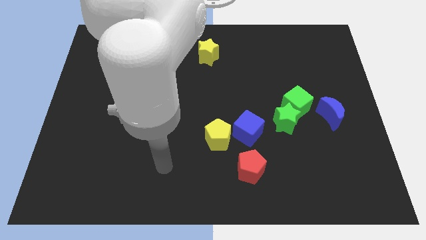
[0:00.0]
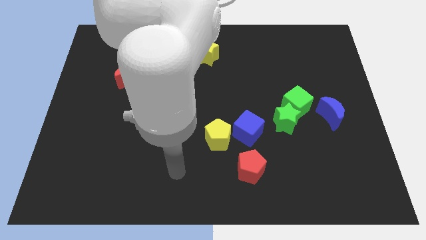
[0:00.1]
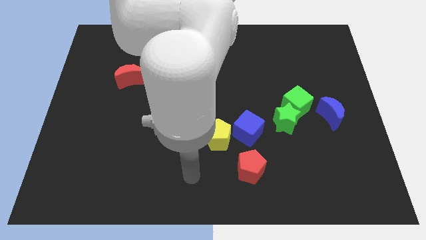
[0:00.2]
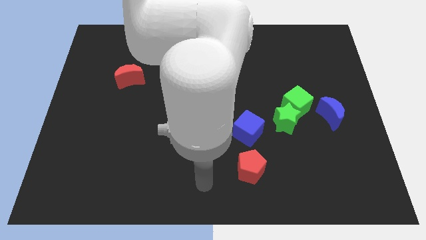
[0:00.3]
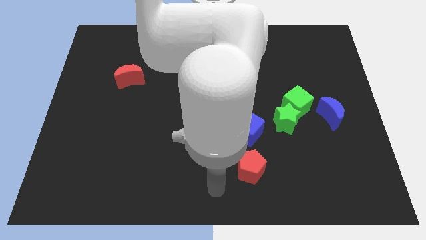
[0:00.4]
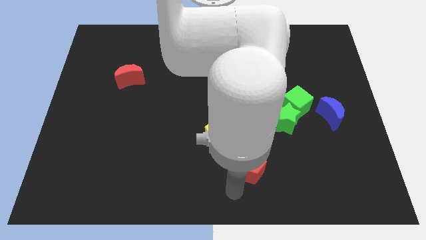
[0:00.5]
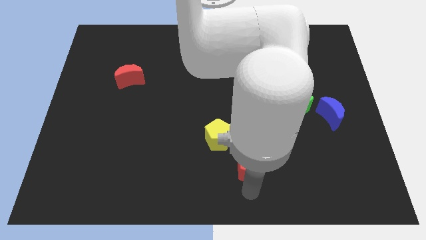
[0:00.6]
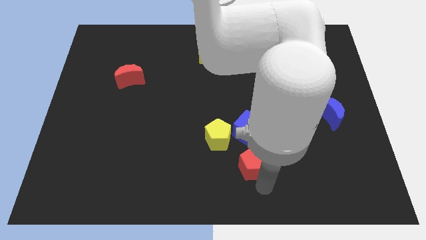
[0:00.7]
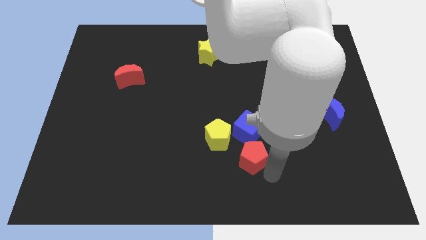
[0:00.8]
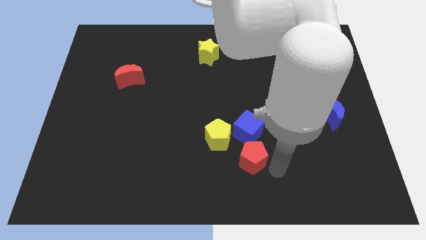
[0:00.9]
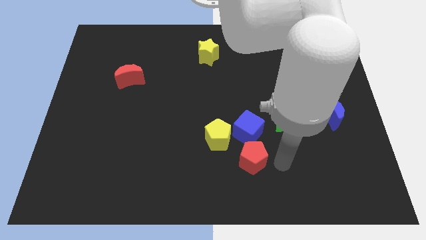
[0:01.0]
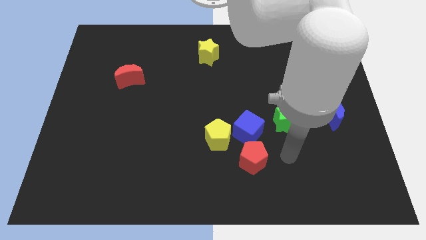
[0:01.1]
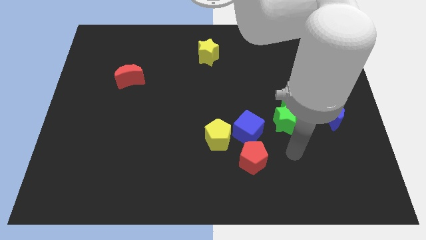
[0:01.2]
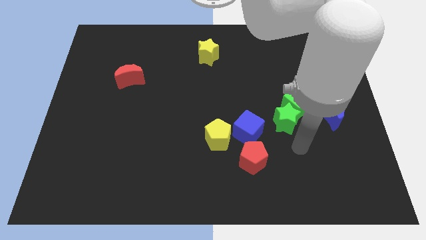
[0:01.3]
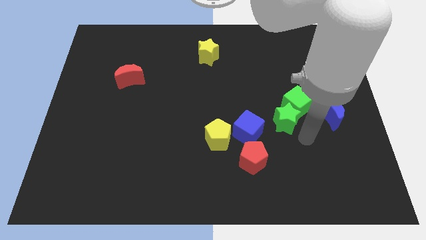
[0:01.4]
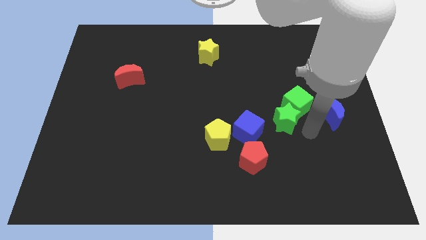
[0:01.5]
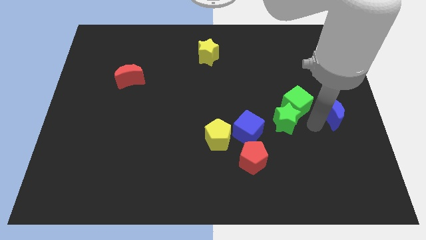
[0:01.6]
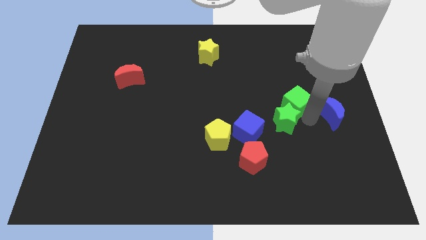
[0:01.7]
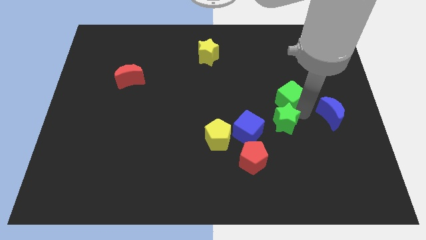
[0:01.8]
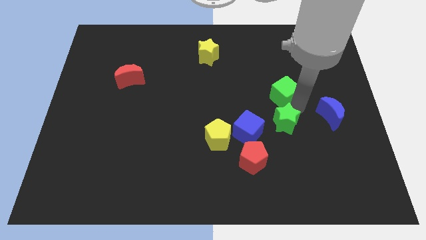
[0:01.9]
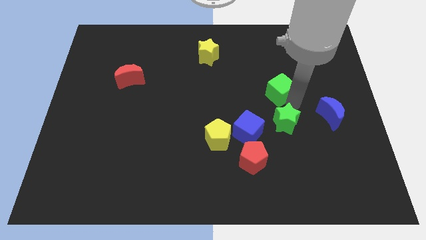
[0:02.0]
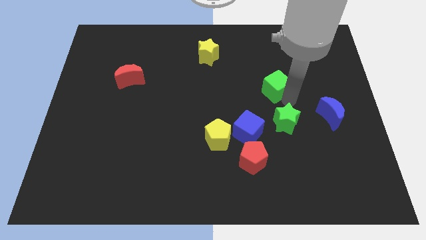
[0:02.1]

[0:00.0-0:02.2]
move the green cube away from the green star and blue moon

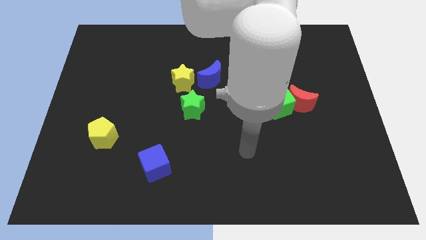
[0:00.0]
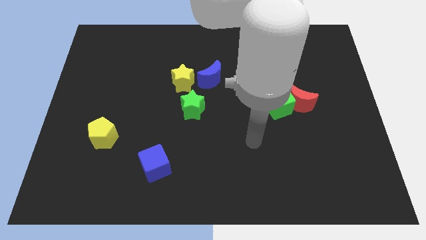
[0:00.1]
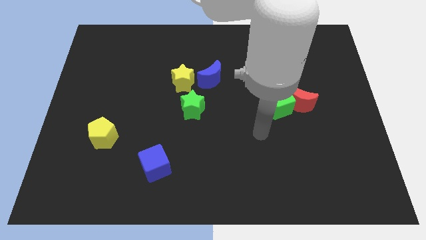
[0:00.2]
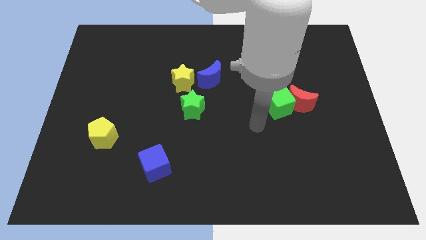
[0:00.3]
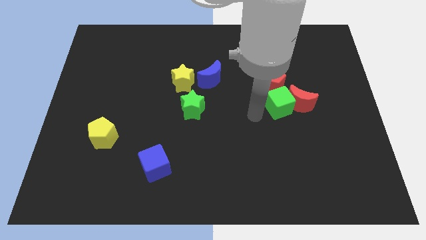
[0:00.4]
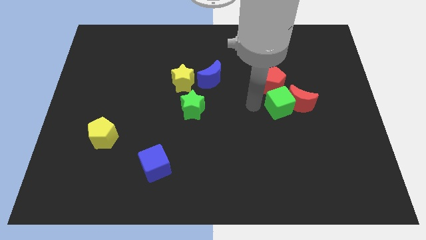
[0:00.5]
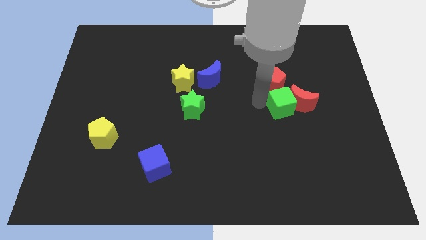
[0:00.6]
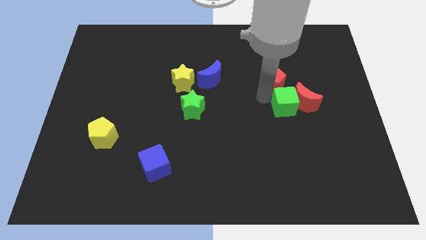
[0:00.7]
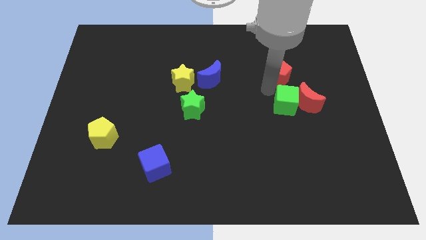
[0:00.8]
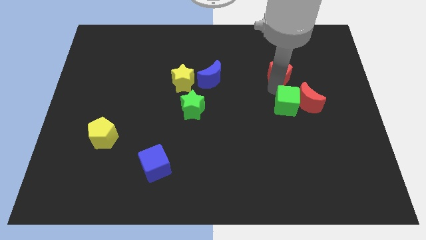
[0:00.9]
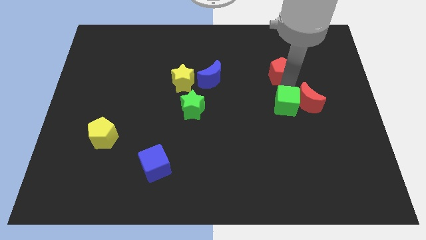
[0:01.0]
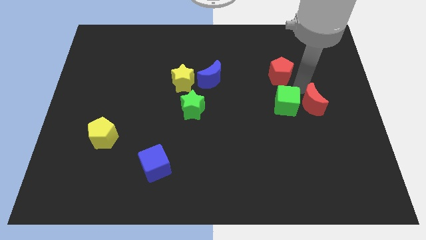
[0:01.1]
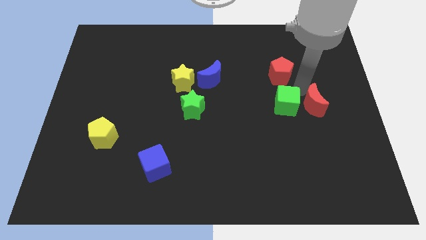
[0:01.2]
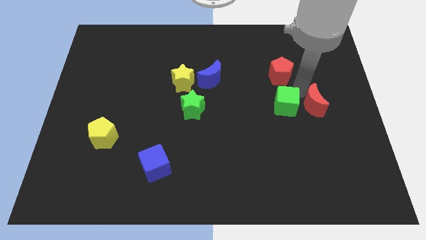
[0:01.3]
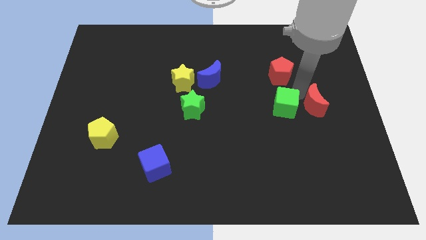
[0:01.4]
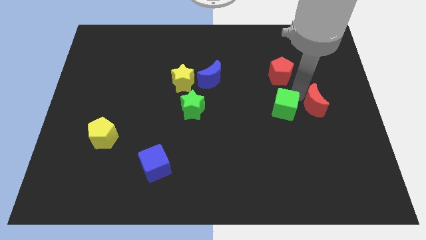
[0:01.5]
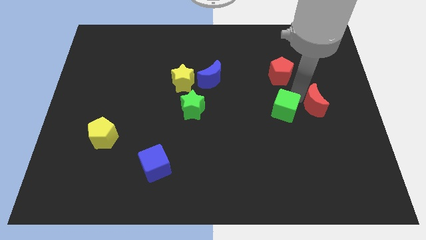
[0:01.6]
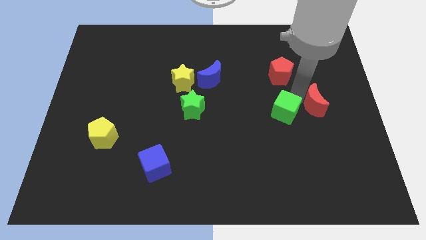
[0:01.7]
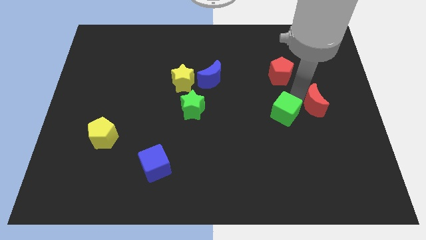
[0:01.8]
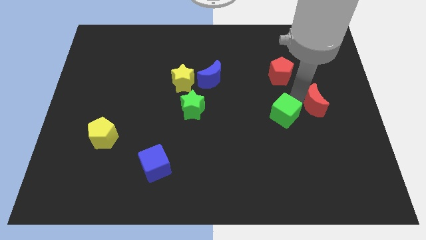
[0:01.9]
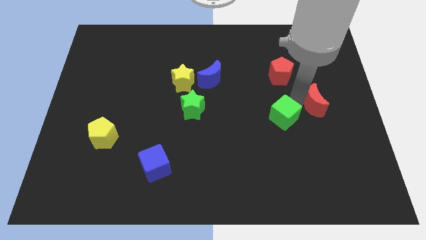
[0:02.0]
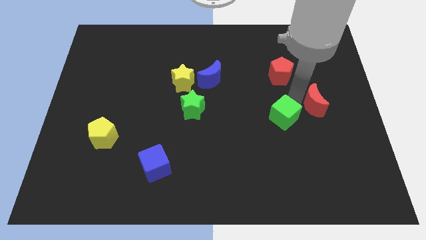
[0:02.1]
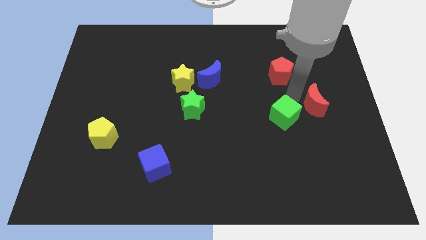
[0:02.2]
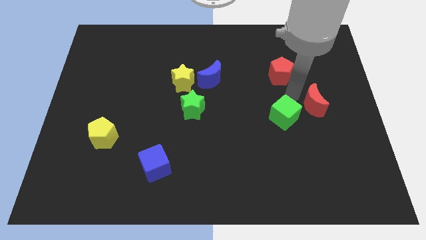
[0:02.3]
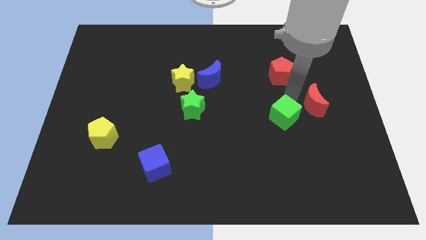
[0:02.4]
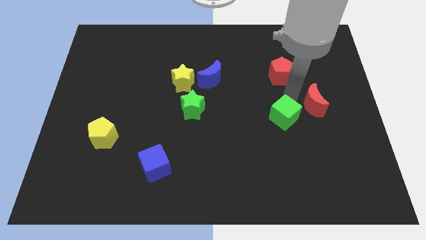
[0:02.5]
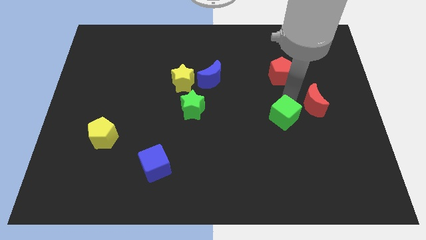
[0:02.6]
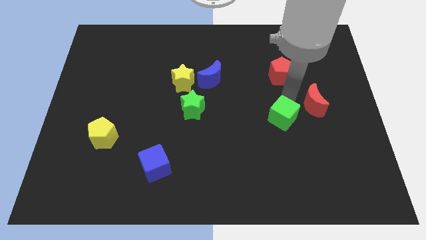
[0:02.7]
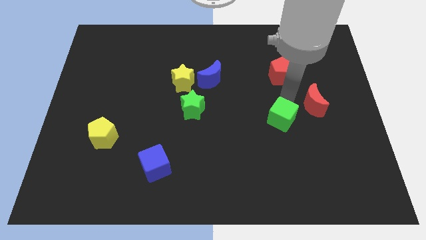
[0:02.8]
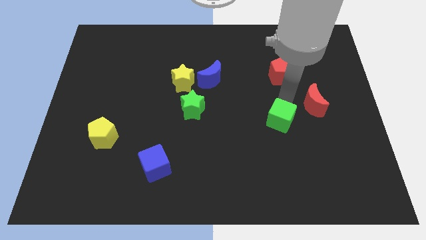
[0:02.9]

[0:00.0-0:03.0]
separate the green cube from the red moon and red pentagon

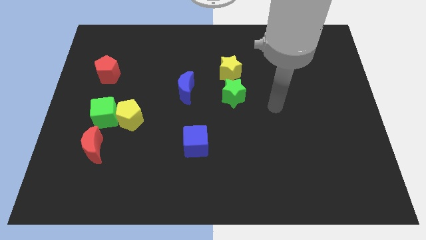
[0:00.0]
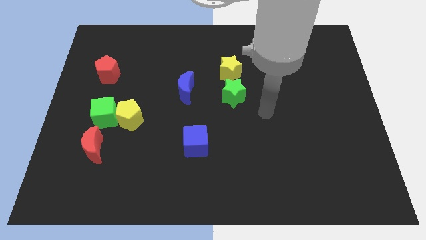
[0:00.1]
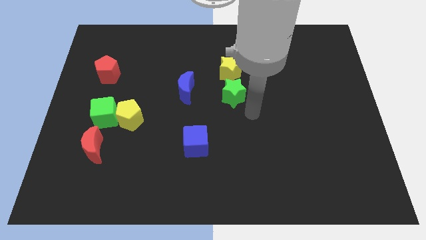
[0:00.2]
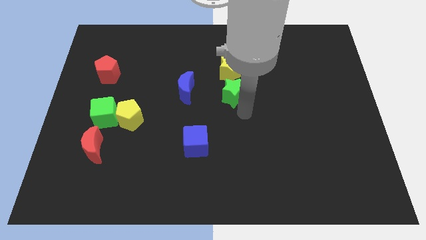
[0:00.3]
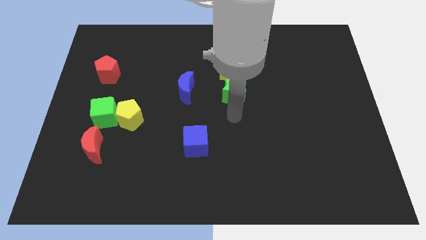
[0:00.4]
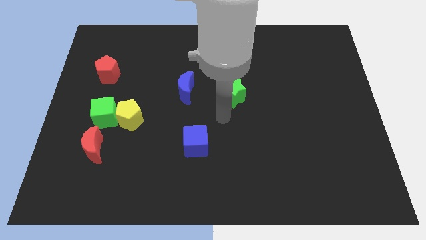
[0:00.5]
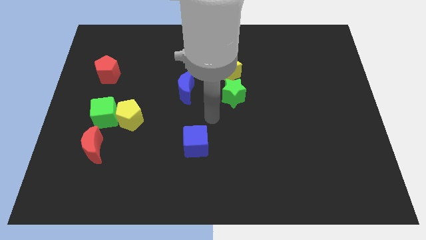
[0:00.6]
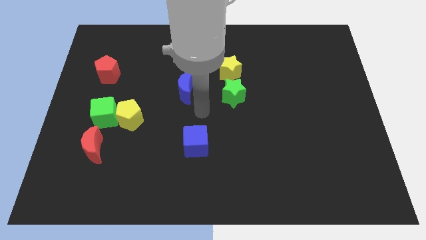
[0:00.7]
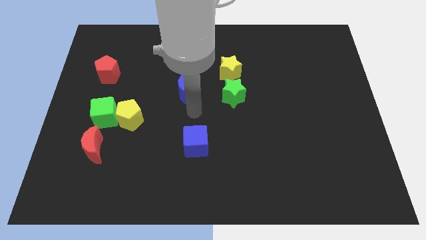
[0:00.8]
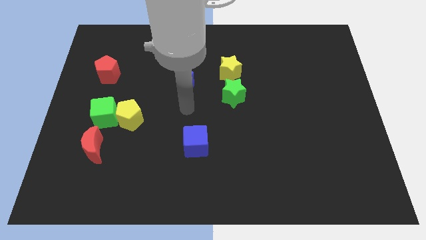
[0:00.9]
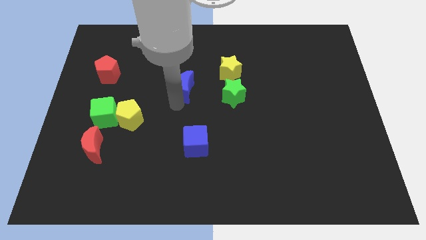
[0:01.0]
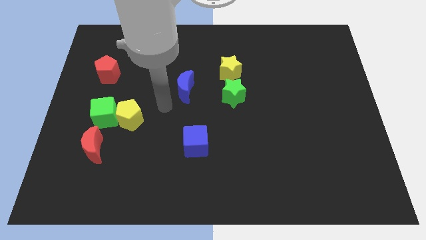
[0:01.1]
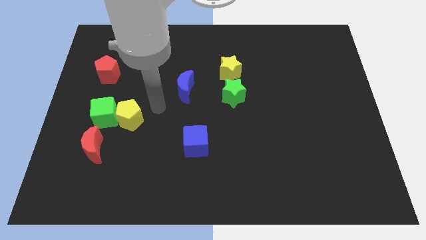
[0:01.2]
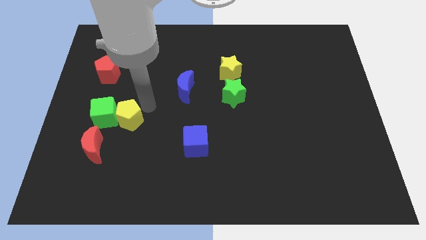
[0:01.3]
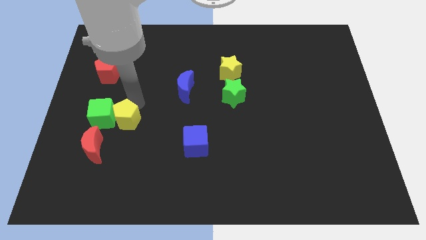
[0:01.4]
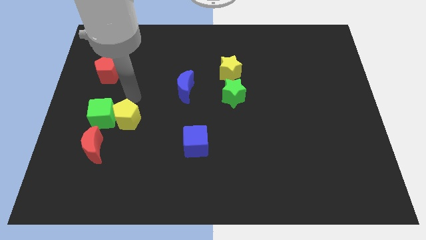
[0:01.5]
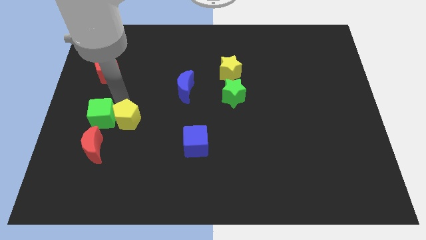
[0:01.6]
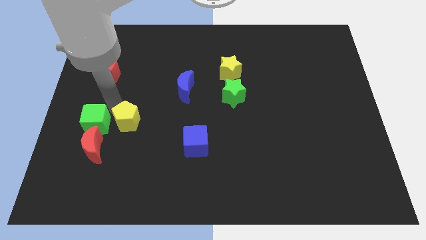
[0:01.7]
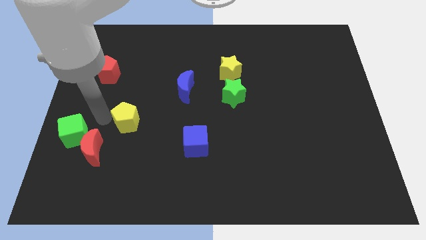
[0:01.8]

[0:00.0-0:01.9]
separate the yellow pentagon from the green cube

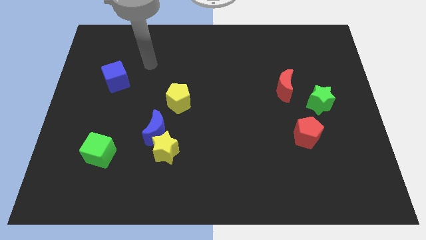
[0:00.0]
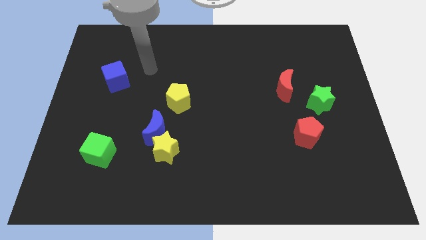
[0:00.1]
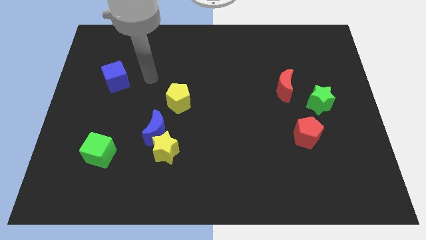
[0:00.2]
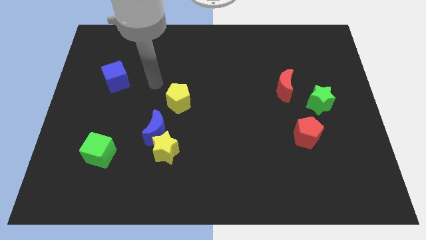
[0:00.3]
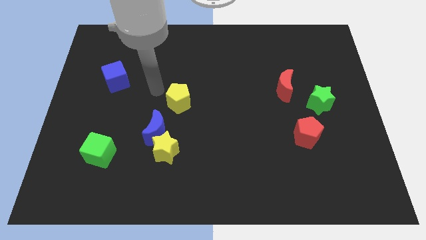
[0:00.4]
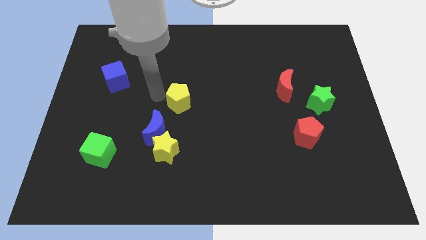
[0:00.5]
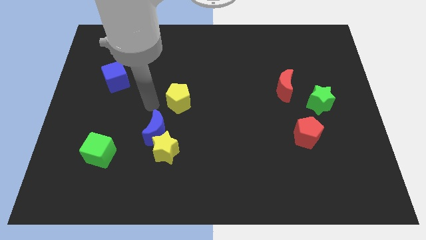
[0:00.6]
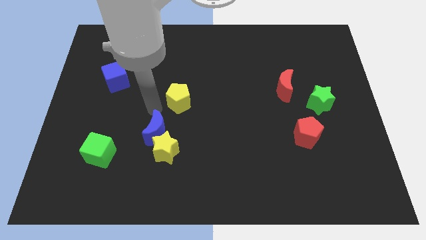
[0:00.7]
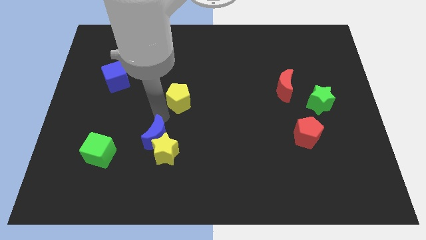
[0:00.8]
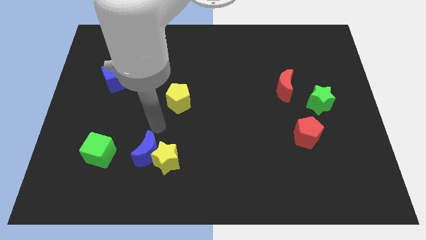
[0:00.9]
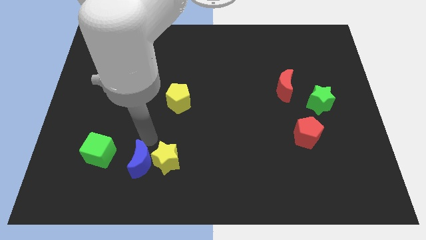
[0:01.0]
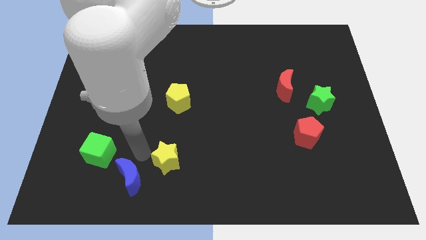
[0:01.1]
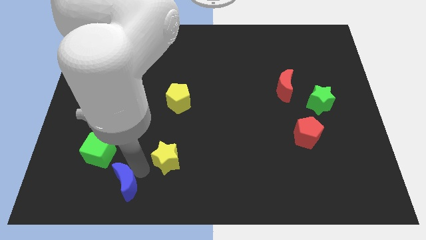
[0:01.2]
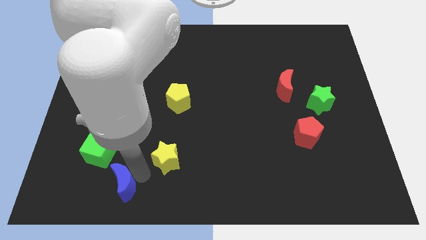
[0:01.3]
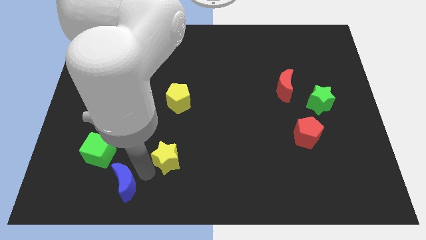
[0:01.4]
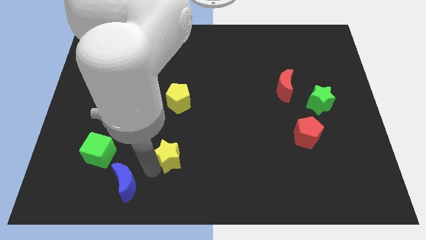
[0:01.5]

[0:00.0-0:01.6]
separate the yellow star from the blue moon

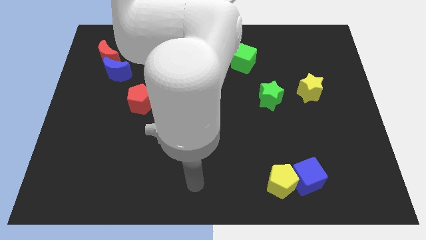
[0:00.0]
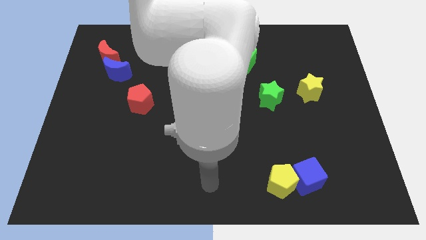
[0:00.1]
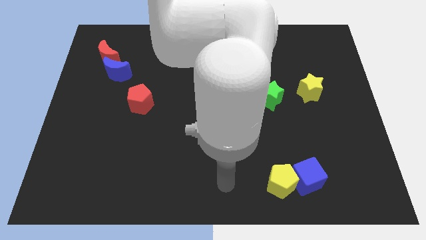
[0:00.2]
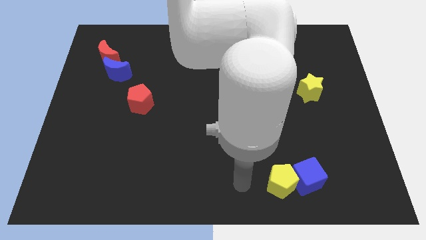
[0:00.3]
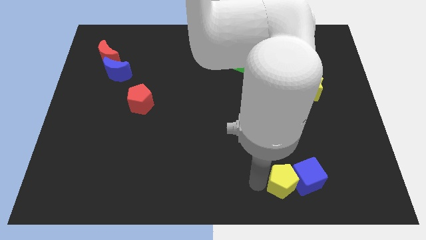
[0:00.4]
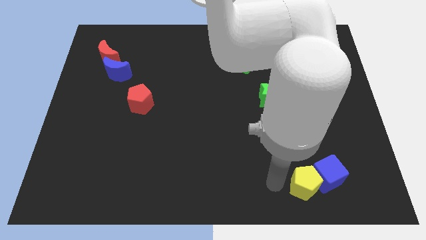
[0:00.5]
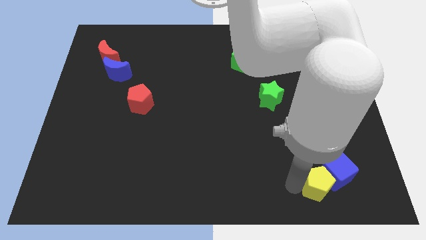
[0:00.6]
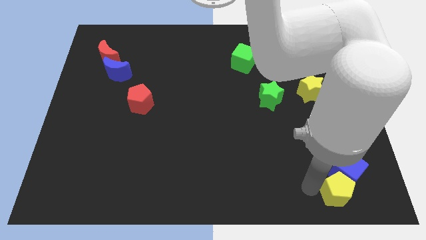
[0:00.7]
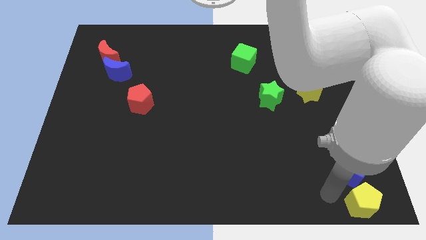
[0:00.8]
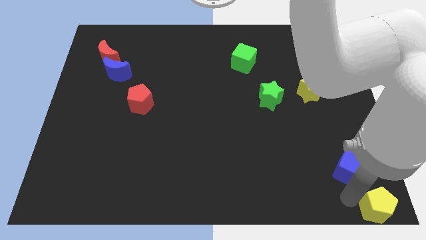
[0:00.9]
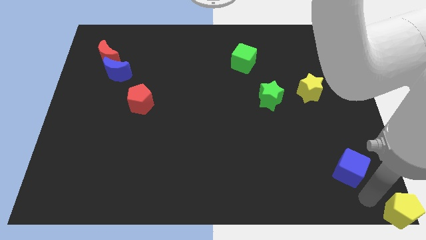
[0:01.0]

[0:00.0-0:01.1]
pull the blue cube apart from the yellow pentagon
